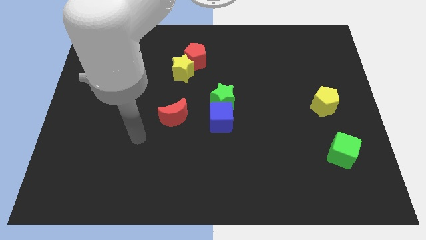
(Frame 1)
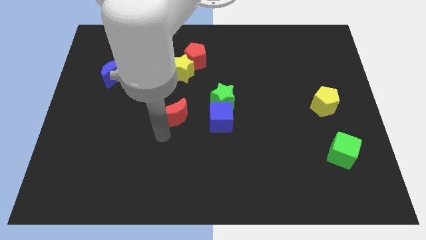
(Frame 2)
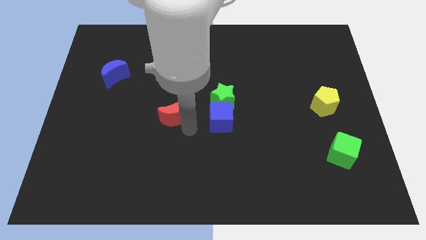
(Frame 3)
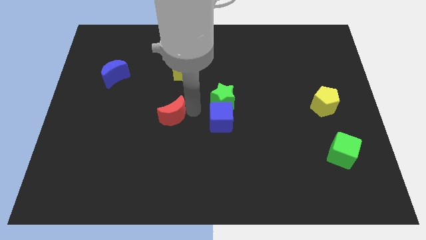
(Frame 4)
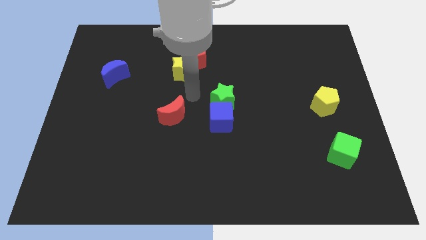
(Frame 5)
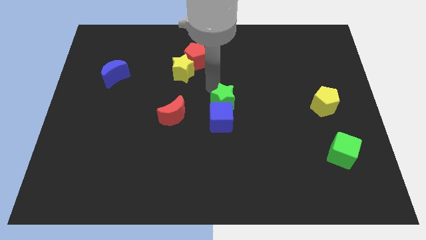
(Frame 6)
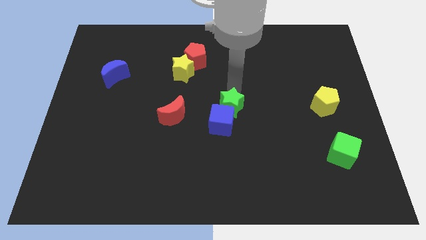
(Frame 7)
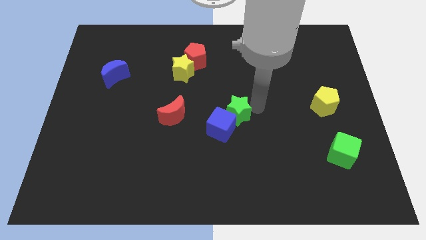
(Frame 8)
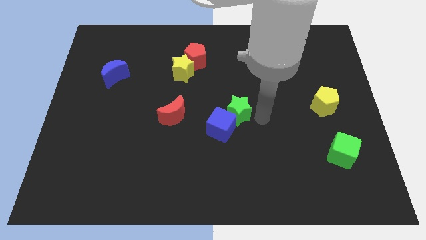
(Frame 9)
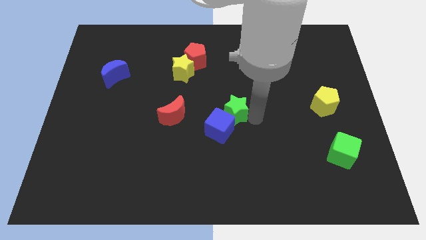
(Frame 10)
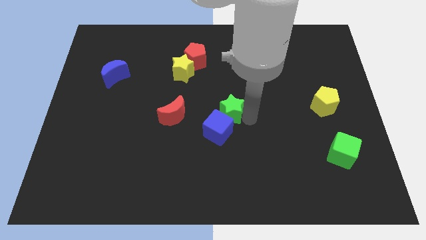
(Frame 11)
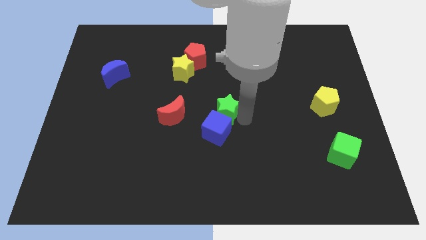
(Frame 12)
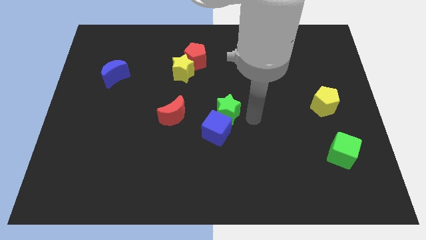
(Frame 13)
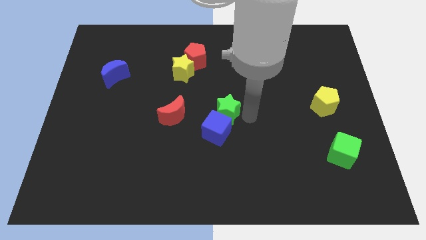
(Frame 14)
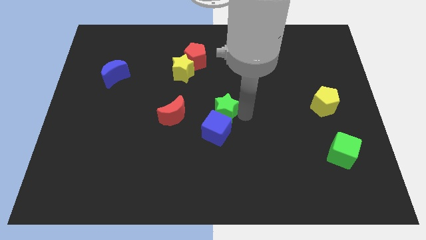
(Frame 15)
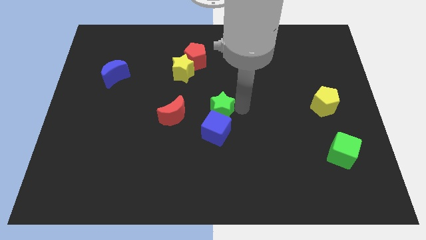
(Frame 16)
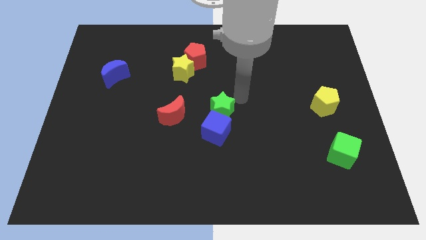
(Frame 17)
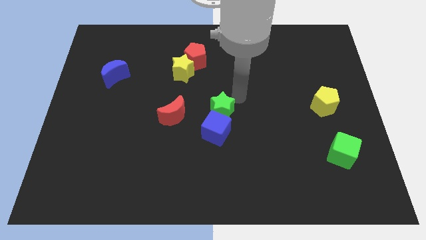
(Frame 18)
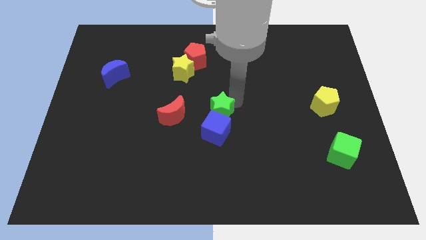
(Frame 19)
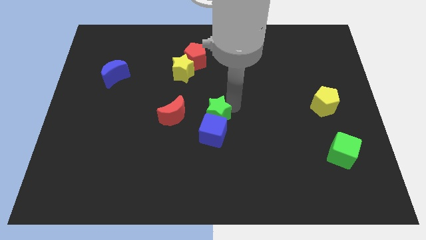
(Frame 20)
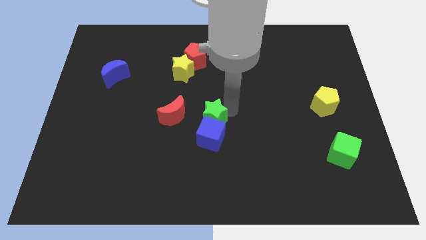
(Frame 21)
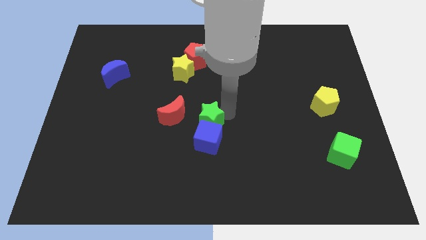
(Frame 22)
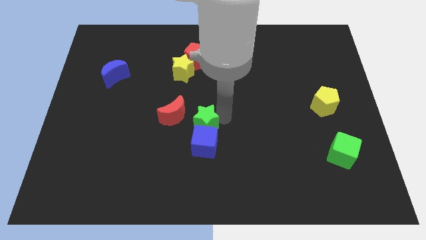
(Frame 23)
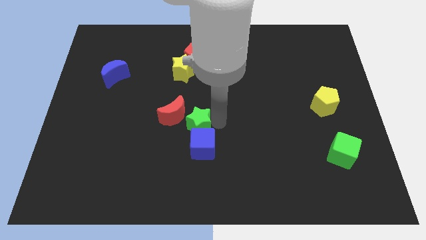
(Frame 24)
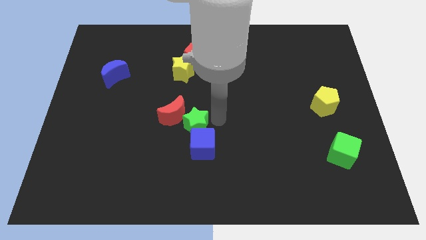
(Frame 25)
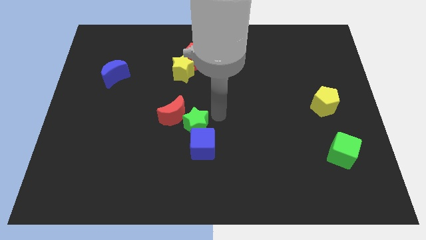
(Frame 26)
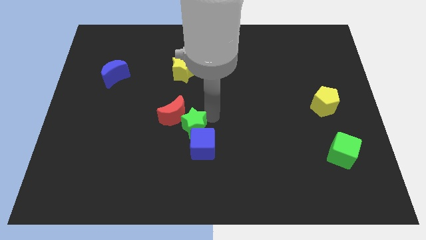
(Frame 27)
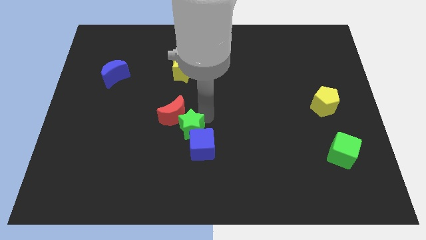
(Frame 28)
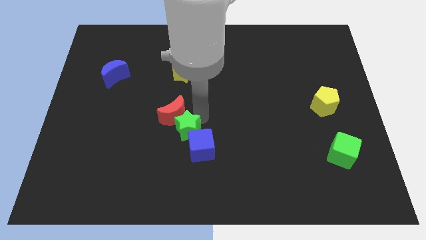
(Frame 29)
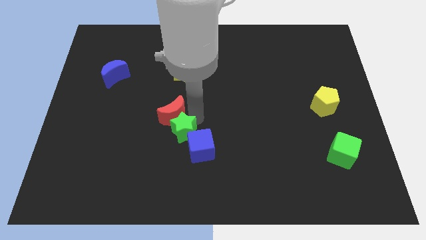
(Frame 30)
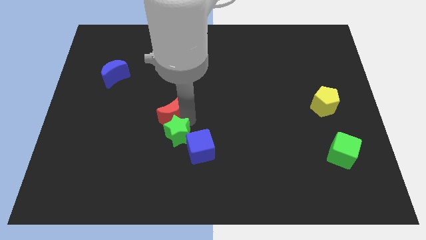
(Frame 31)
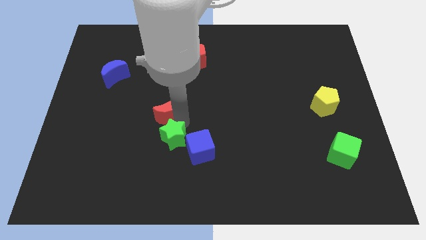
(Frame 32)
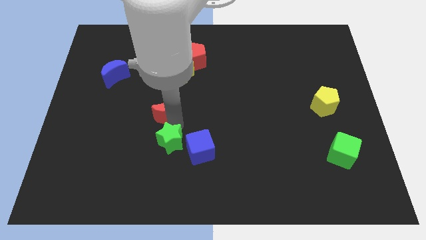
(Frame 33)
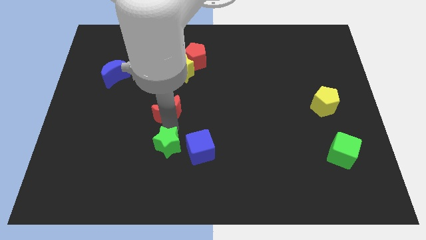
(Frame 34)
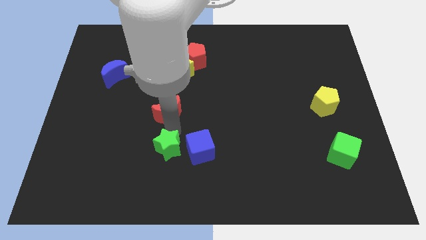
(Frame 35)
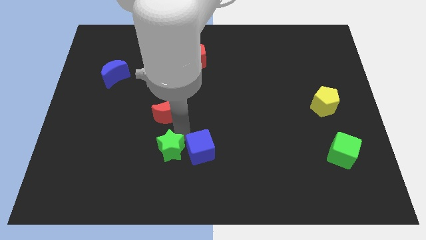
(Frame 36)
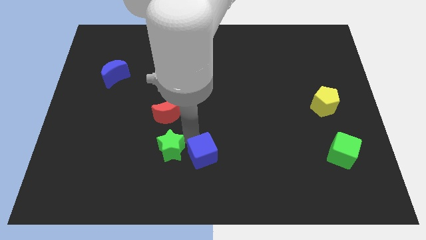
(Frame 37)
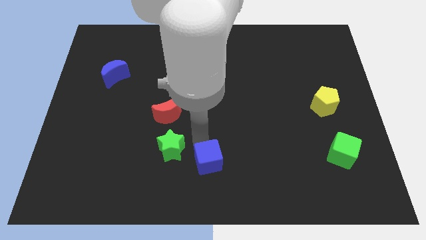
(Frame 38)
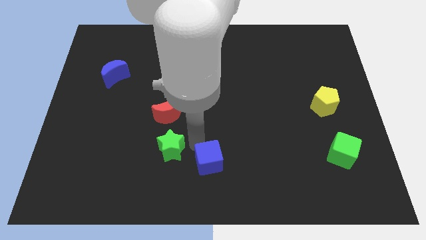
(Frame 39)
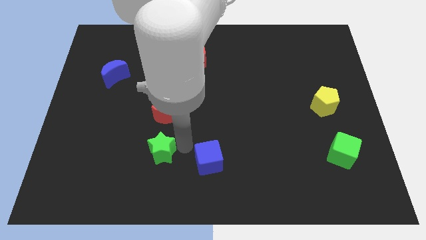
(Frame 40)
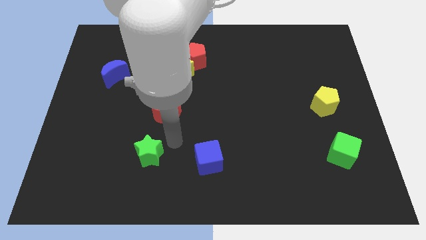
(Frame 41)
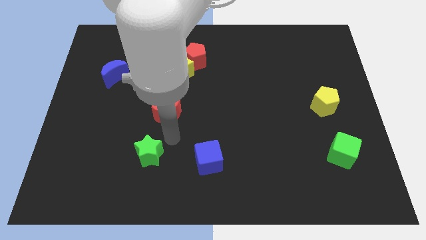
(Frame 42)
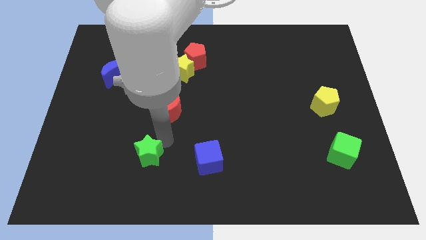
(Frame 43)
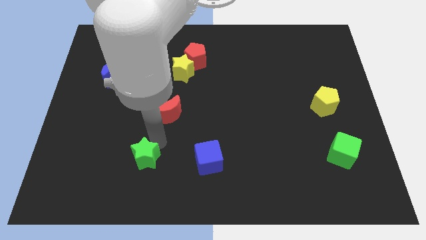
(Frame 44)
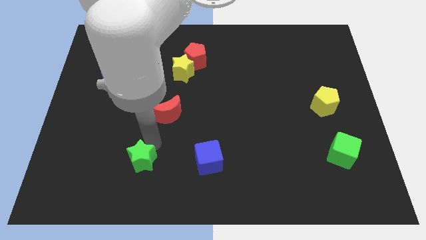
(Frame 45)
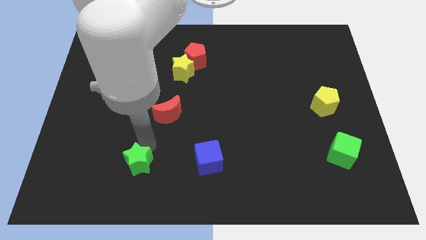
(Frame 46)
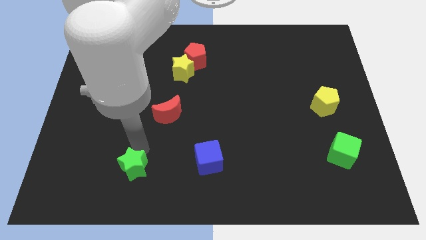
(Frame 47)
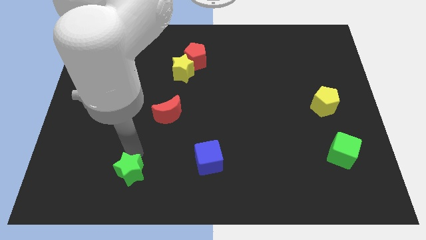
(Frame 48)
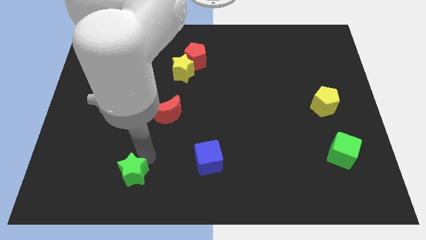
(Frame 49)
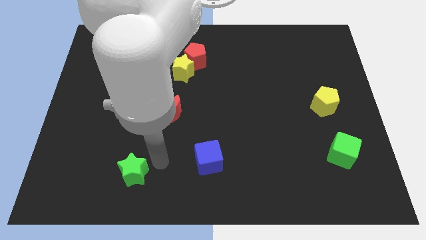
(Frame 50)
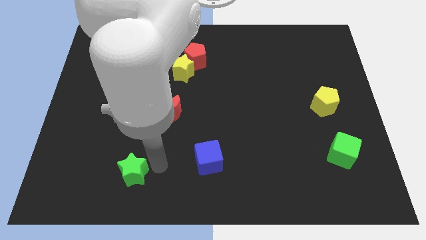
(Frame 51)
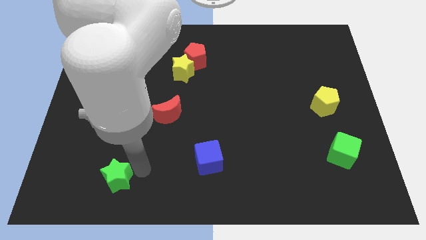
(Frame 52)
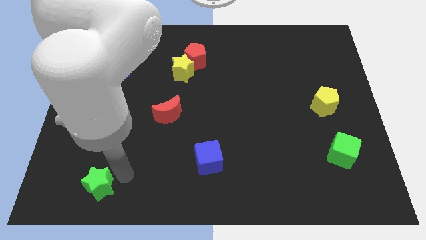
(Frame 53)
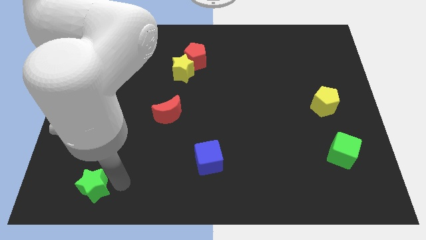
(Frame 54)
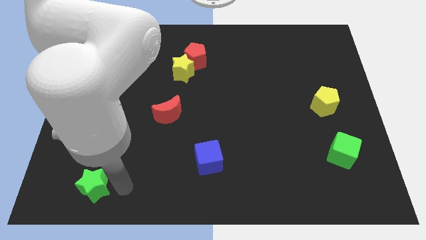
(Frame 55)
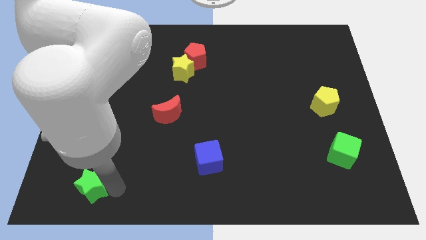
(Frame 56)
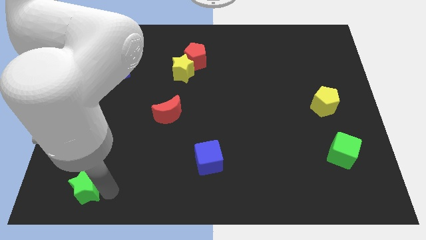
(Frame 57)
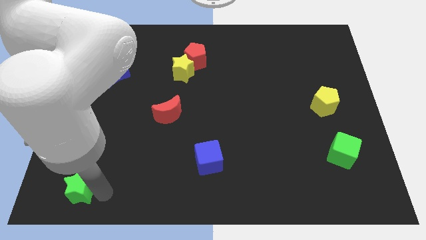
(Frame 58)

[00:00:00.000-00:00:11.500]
slide the green star to the lower left corner

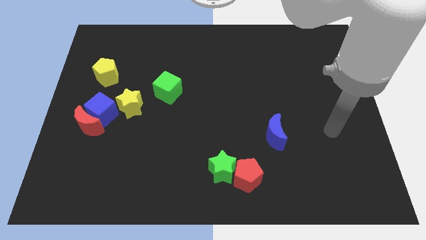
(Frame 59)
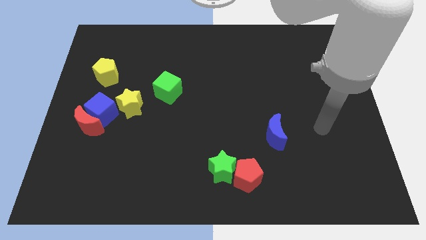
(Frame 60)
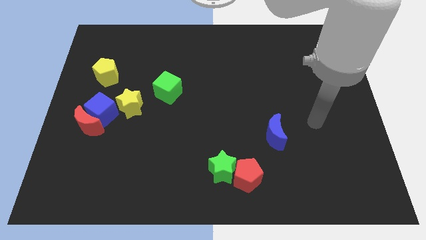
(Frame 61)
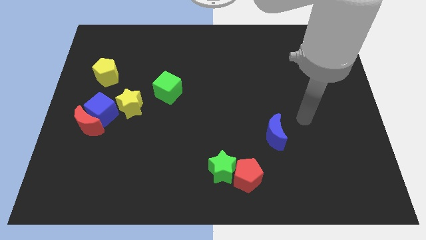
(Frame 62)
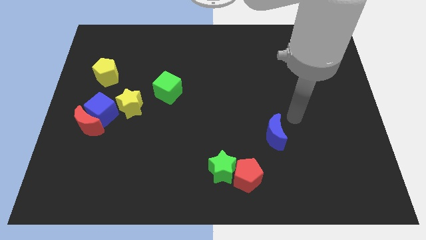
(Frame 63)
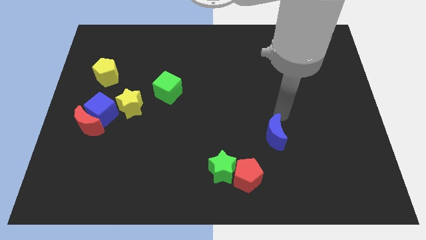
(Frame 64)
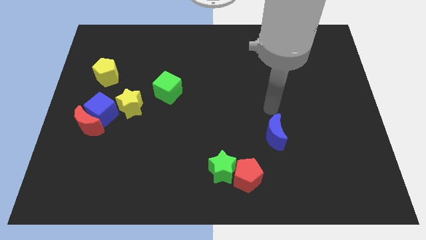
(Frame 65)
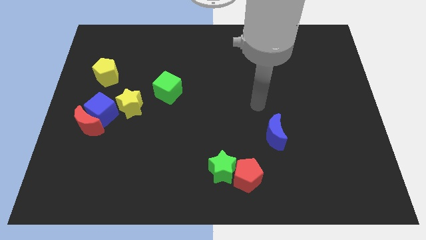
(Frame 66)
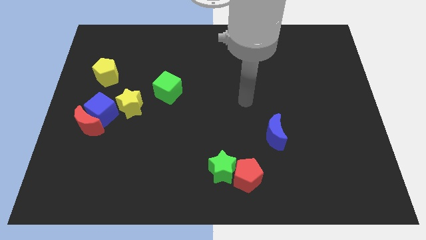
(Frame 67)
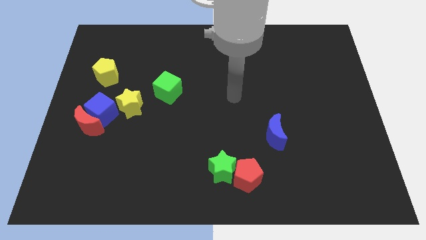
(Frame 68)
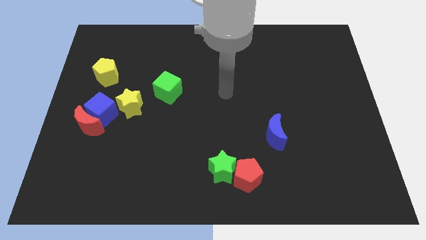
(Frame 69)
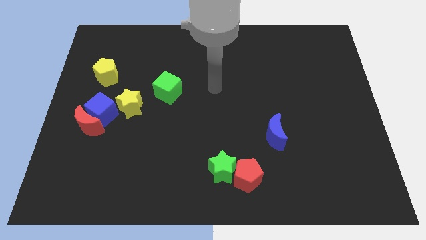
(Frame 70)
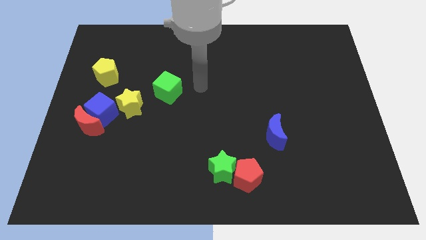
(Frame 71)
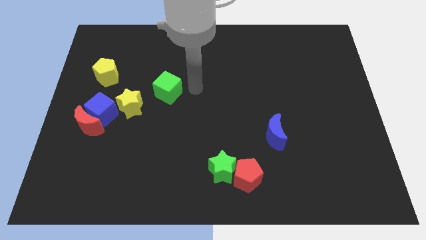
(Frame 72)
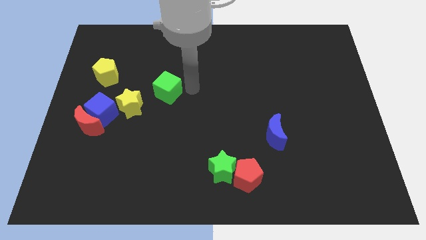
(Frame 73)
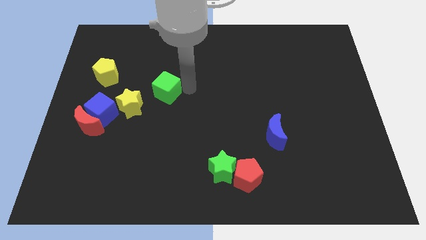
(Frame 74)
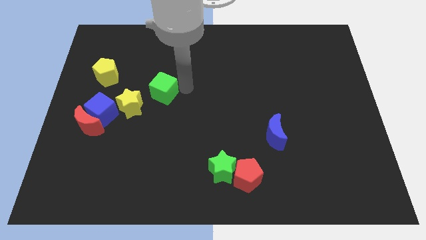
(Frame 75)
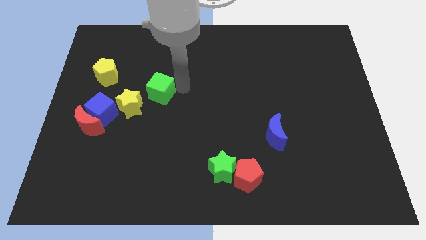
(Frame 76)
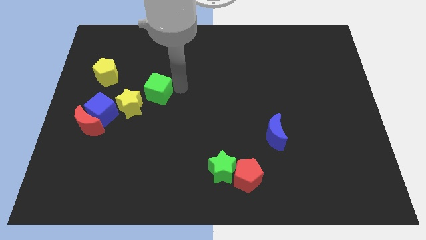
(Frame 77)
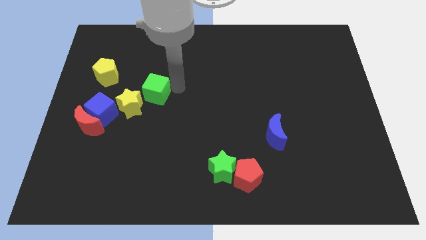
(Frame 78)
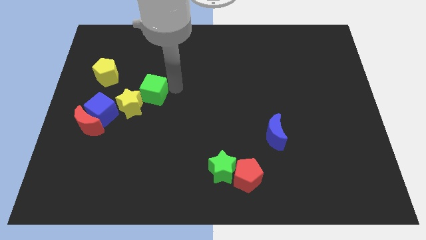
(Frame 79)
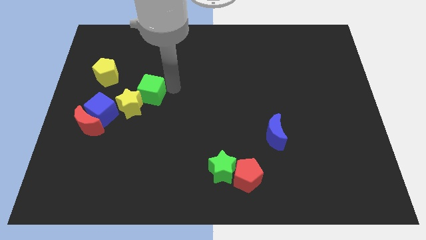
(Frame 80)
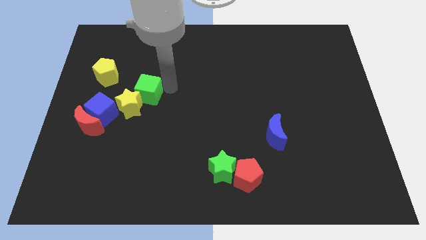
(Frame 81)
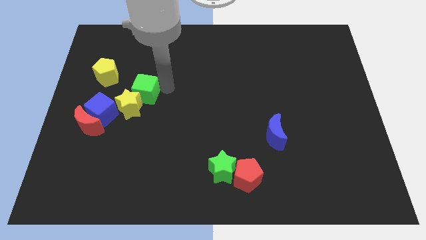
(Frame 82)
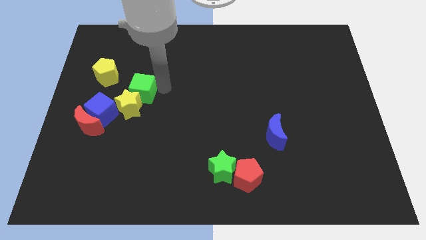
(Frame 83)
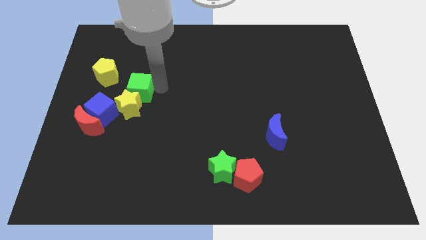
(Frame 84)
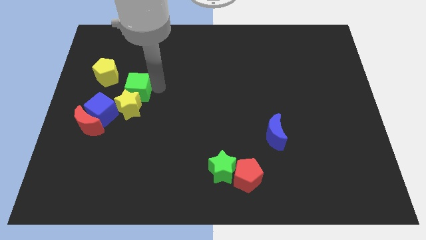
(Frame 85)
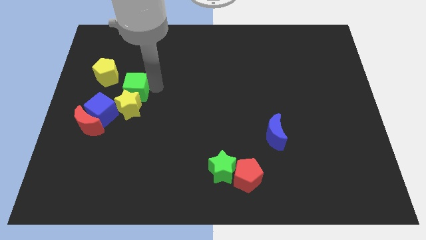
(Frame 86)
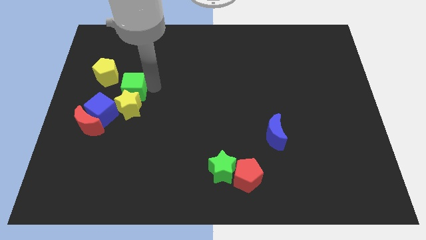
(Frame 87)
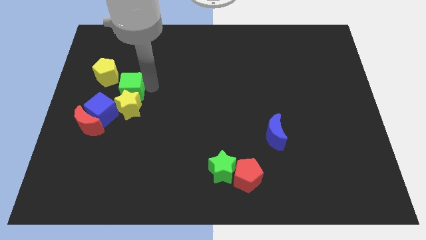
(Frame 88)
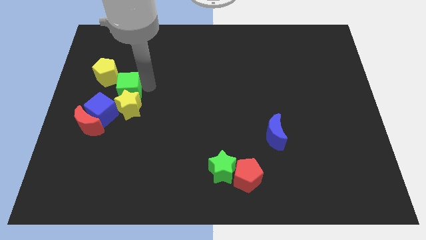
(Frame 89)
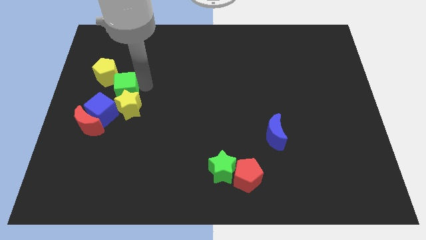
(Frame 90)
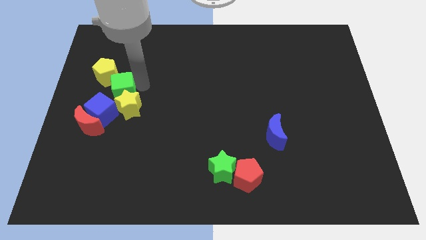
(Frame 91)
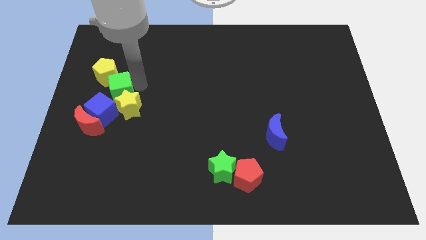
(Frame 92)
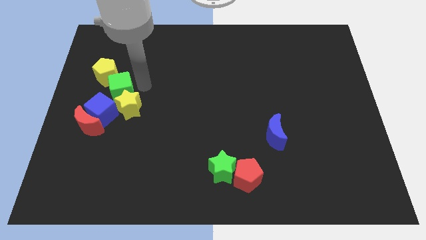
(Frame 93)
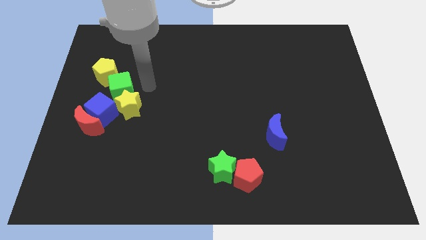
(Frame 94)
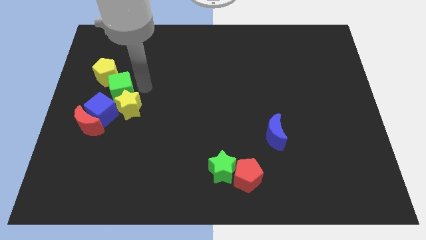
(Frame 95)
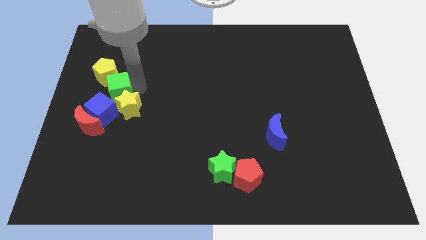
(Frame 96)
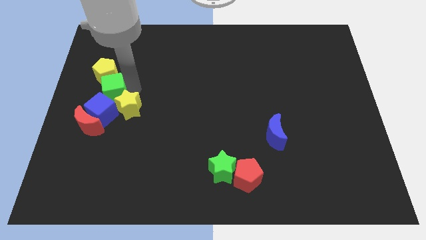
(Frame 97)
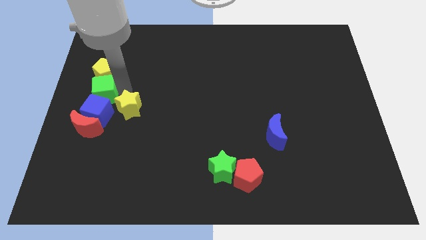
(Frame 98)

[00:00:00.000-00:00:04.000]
slide the green cube to the left side
